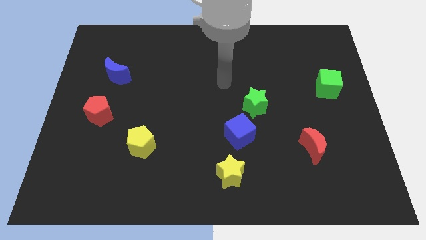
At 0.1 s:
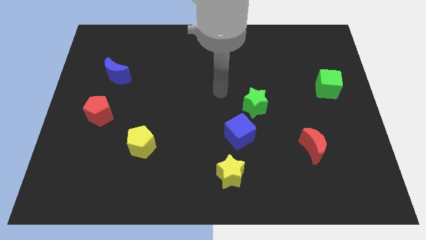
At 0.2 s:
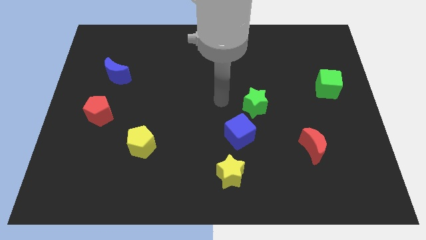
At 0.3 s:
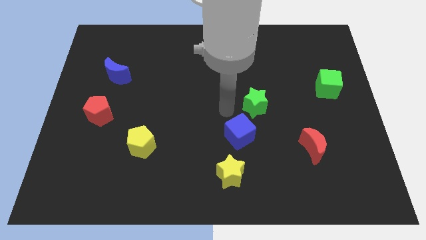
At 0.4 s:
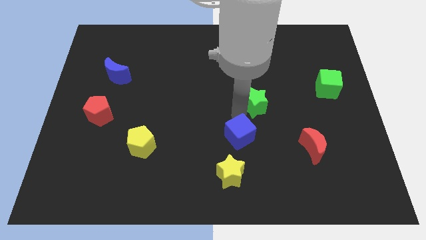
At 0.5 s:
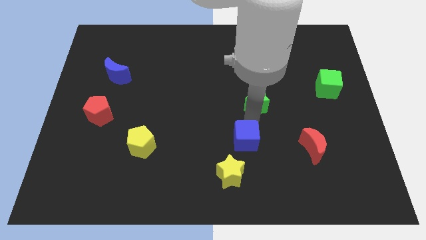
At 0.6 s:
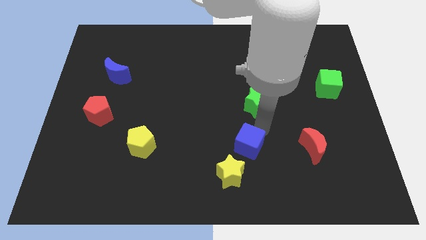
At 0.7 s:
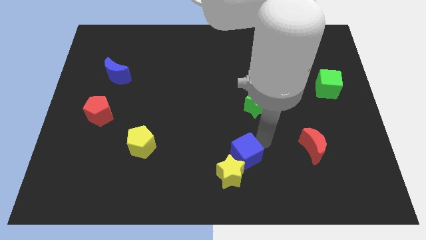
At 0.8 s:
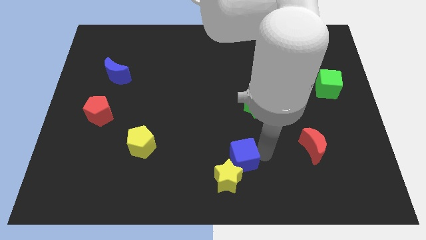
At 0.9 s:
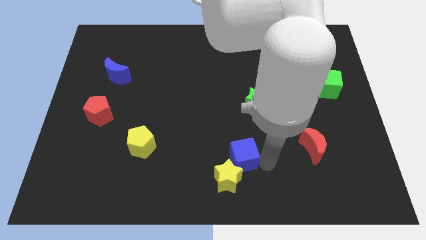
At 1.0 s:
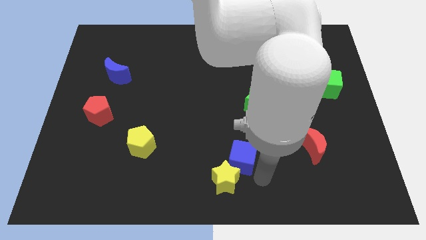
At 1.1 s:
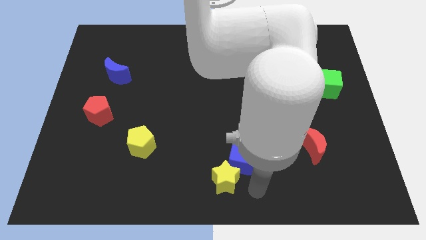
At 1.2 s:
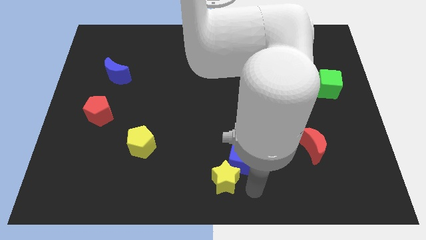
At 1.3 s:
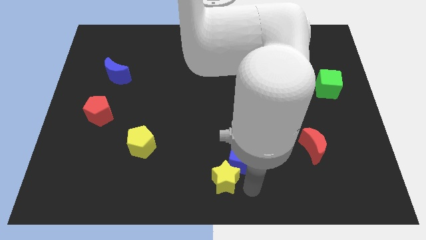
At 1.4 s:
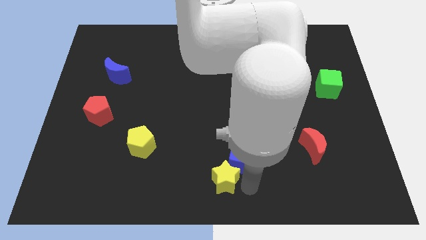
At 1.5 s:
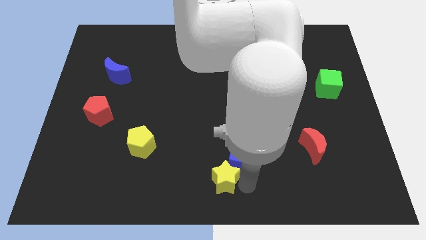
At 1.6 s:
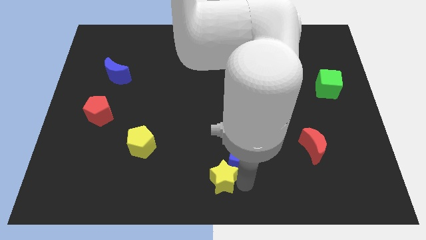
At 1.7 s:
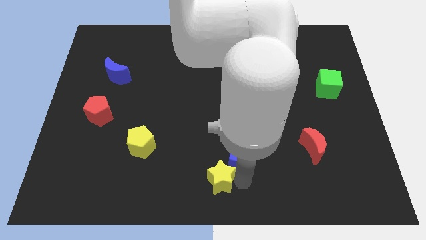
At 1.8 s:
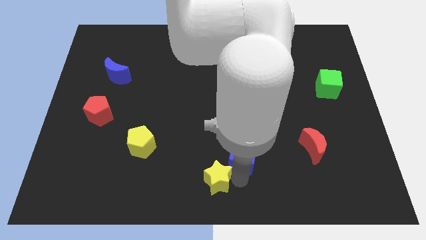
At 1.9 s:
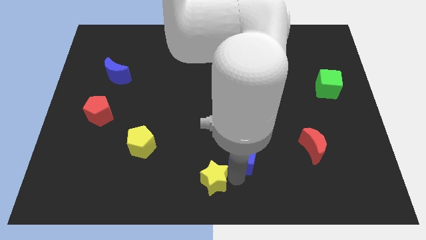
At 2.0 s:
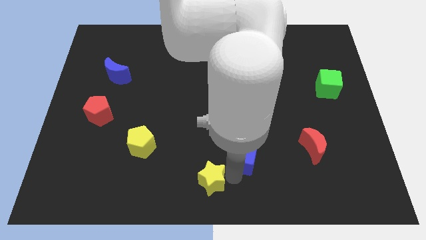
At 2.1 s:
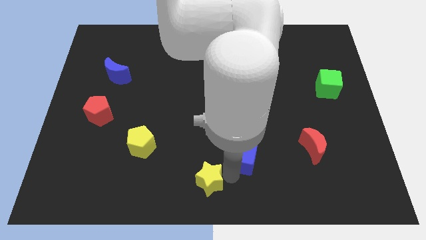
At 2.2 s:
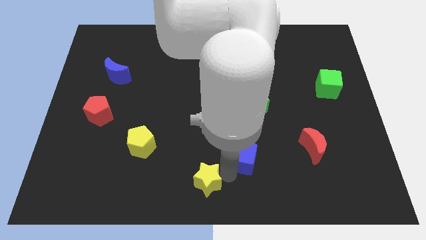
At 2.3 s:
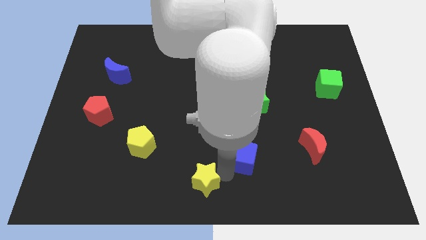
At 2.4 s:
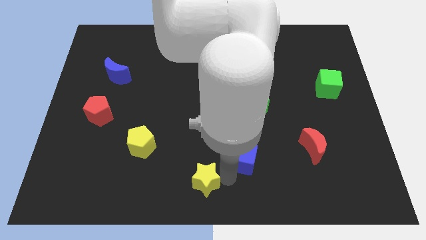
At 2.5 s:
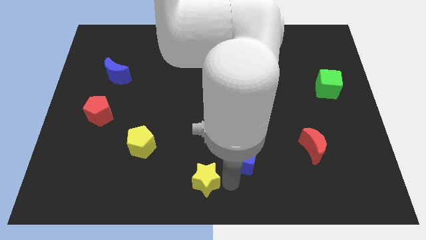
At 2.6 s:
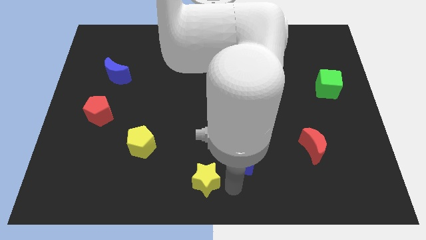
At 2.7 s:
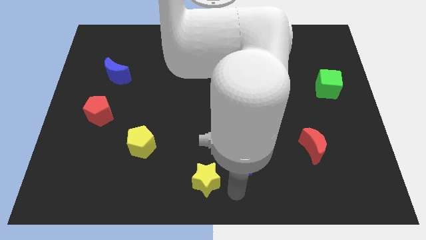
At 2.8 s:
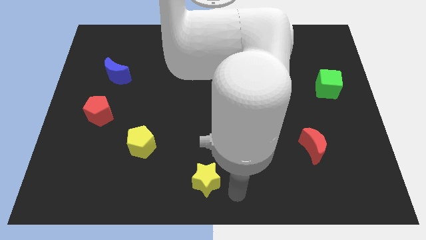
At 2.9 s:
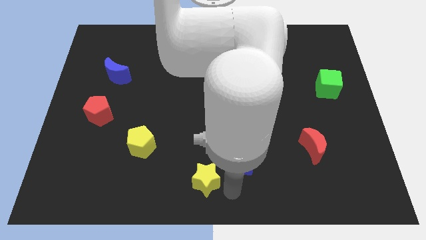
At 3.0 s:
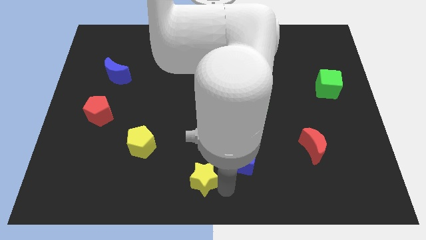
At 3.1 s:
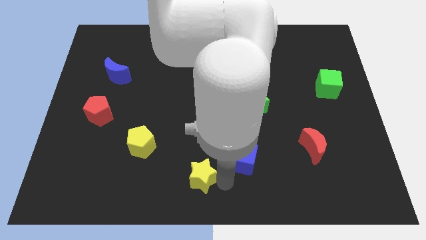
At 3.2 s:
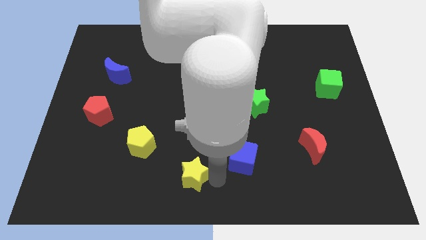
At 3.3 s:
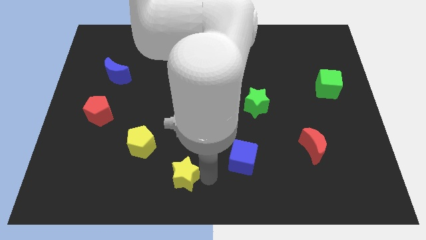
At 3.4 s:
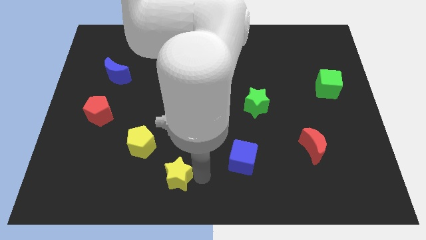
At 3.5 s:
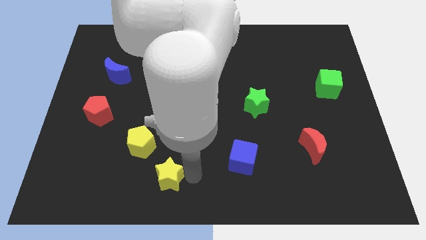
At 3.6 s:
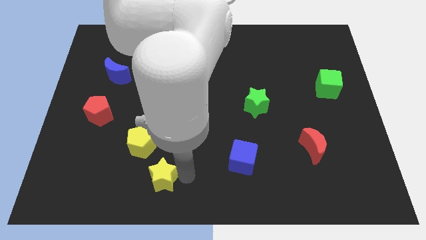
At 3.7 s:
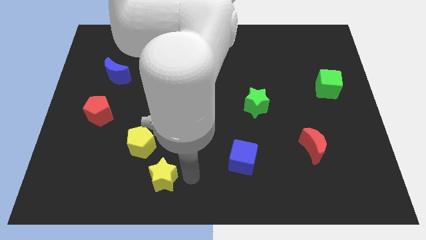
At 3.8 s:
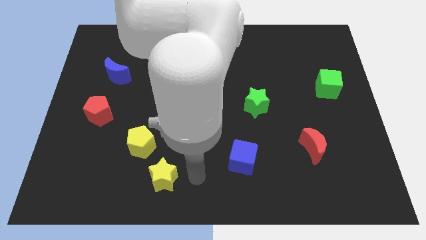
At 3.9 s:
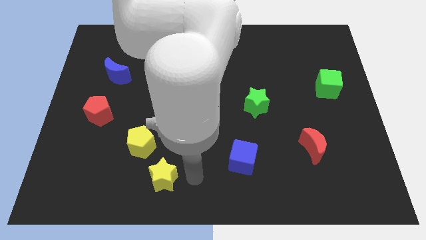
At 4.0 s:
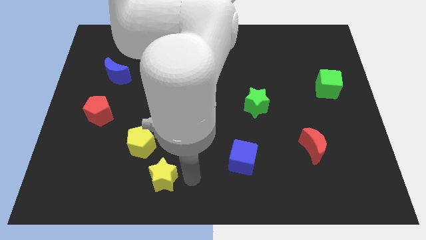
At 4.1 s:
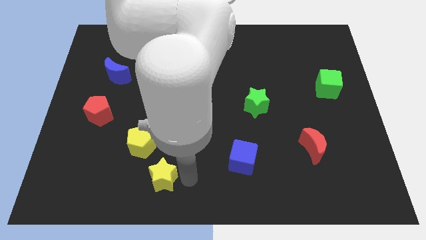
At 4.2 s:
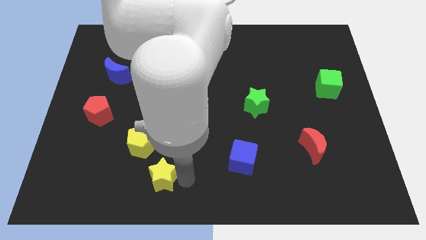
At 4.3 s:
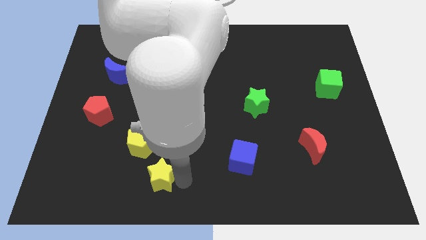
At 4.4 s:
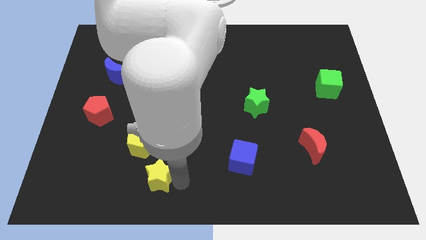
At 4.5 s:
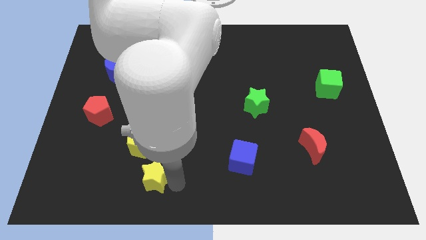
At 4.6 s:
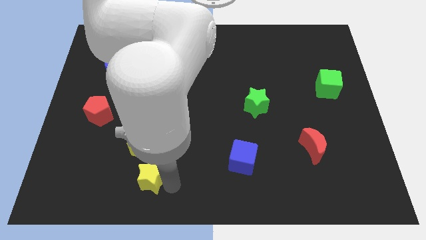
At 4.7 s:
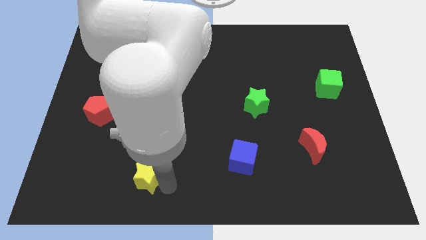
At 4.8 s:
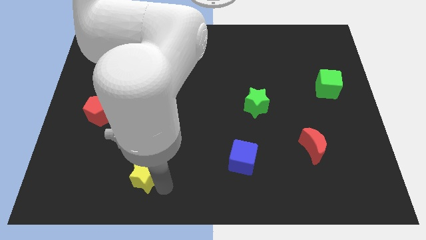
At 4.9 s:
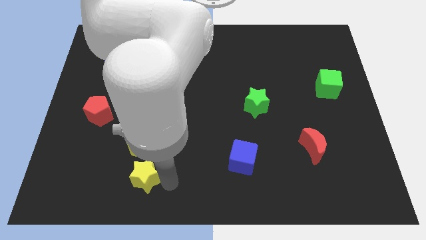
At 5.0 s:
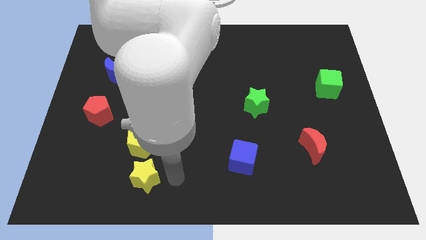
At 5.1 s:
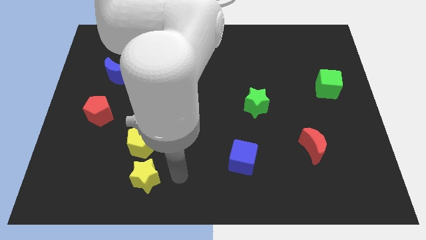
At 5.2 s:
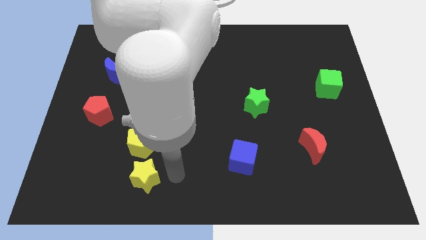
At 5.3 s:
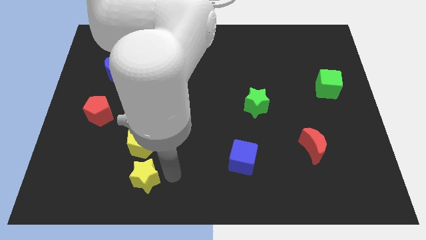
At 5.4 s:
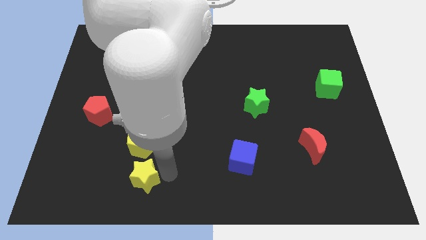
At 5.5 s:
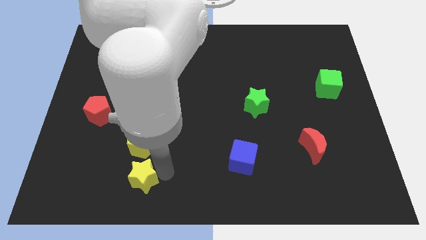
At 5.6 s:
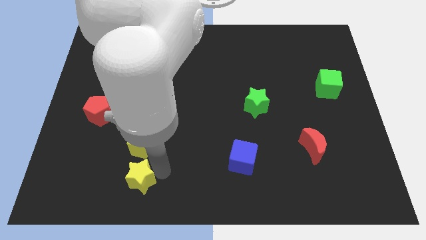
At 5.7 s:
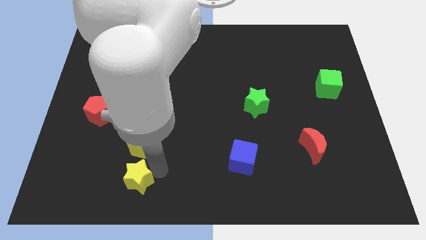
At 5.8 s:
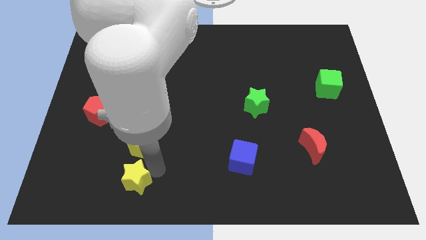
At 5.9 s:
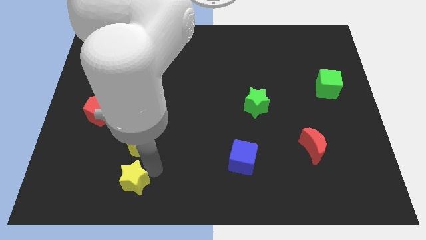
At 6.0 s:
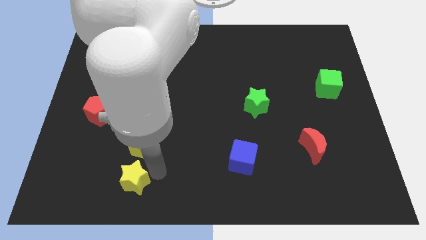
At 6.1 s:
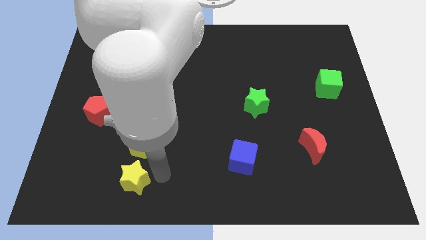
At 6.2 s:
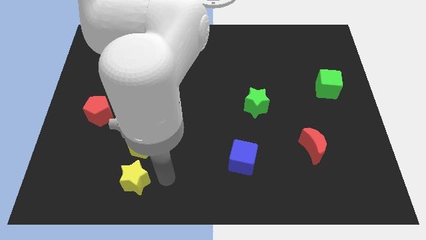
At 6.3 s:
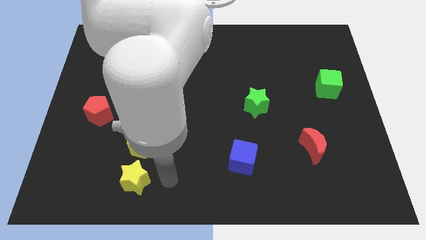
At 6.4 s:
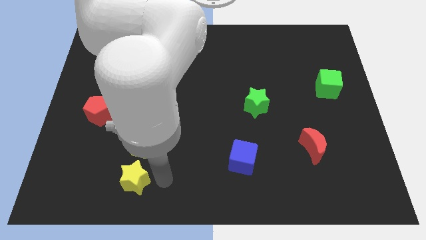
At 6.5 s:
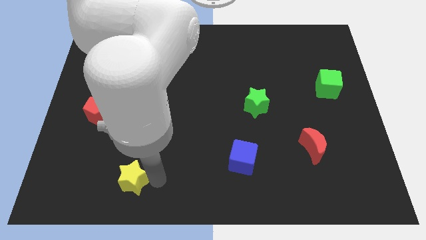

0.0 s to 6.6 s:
slide the yellow star left

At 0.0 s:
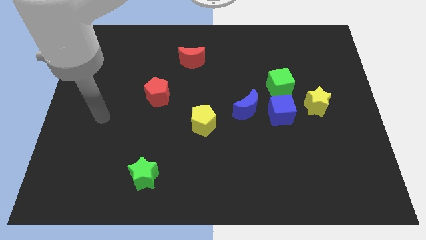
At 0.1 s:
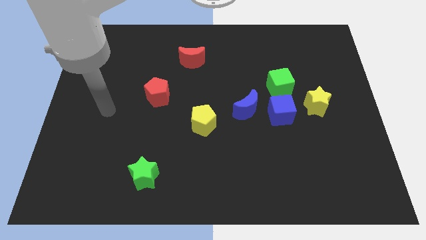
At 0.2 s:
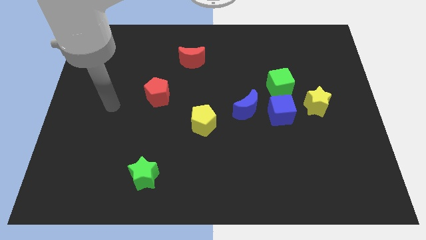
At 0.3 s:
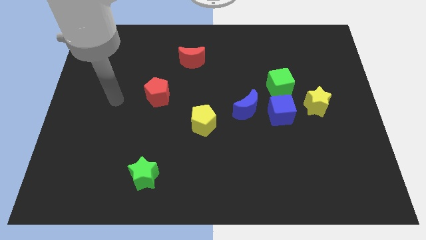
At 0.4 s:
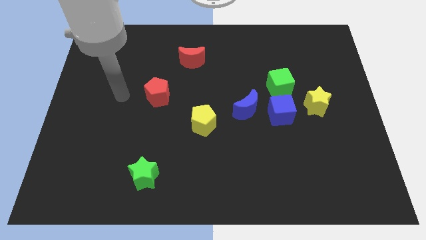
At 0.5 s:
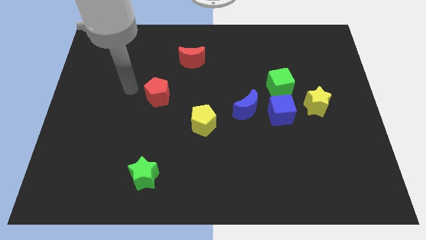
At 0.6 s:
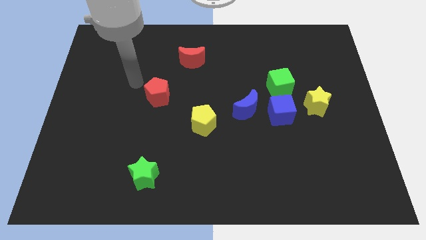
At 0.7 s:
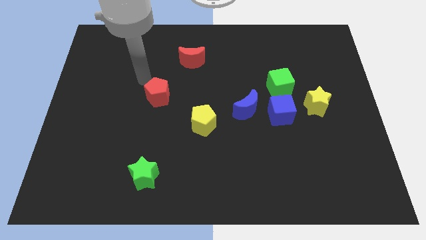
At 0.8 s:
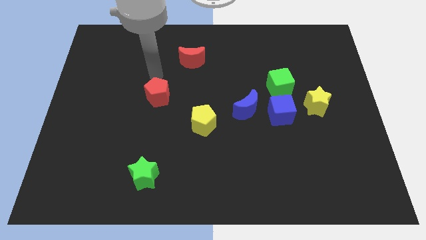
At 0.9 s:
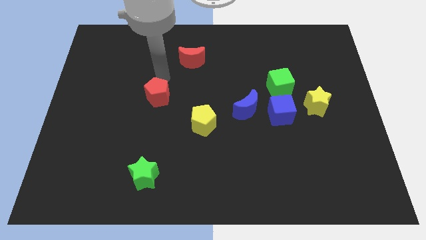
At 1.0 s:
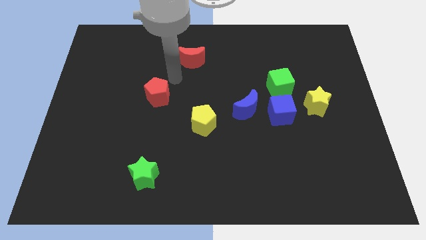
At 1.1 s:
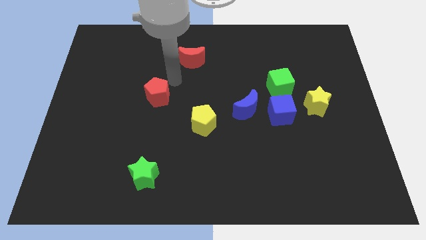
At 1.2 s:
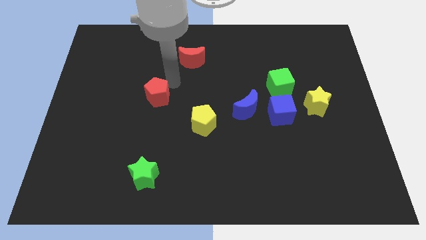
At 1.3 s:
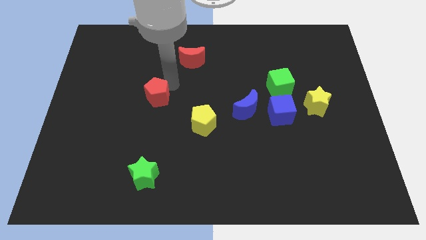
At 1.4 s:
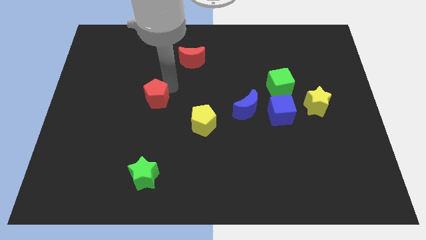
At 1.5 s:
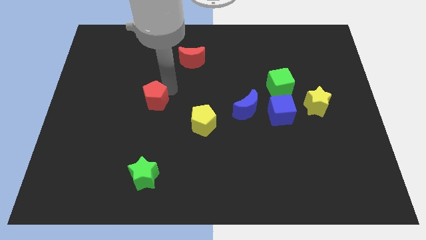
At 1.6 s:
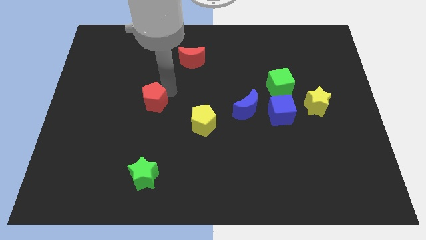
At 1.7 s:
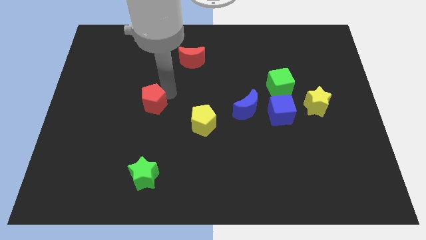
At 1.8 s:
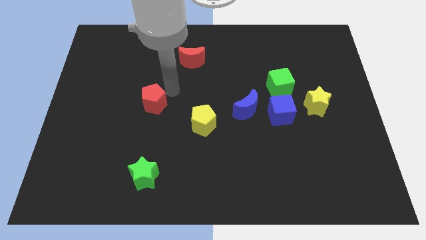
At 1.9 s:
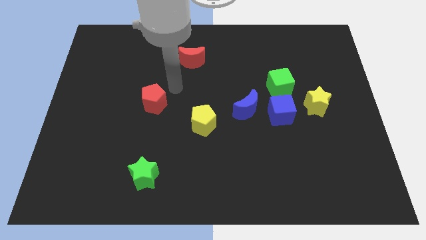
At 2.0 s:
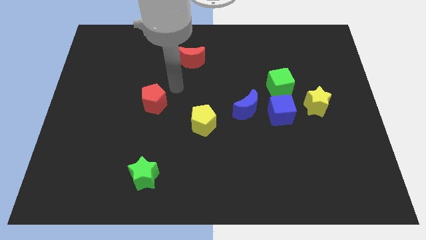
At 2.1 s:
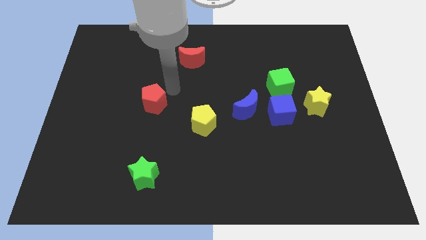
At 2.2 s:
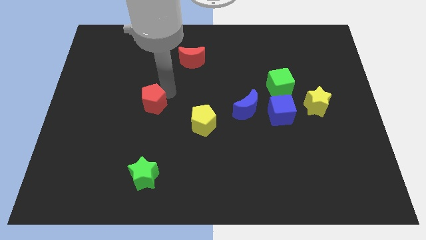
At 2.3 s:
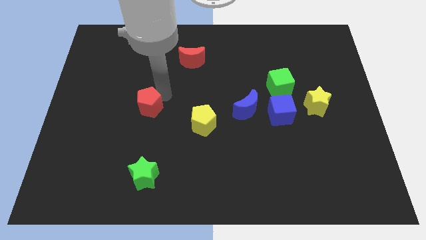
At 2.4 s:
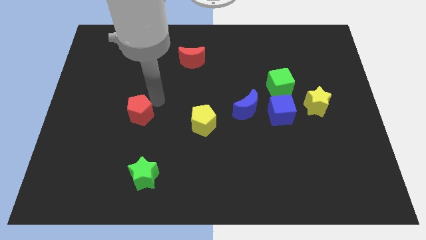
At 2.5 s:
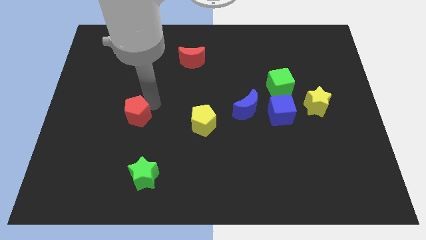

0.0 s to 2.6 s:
move the red pentagon a little downwards and left diagonally
